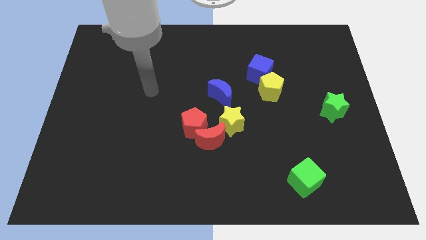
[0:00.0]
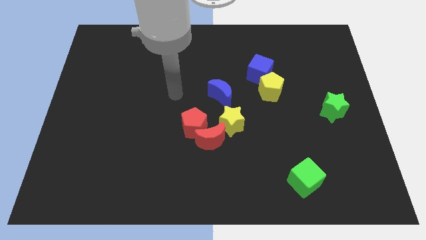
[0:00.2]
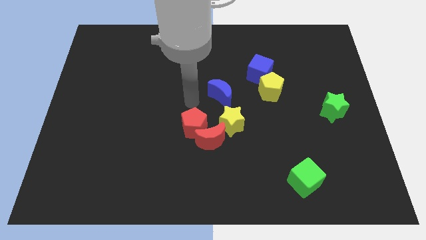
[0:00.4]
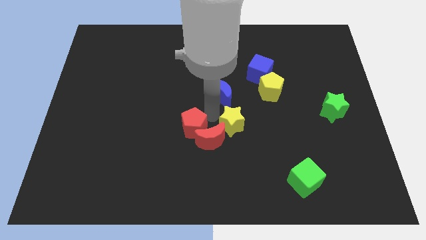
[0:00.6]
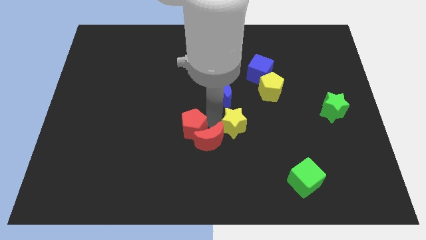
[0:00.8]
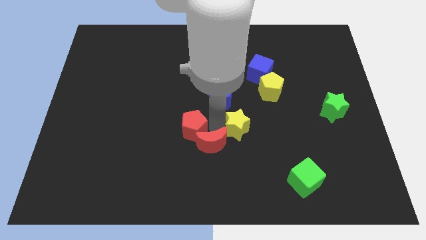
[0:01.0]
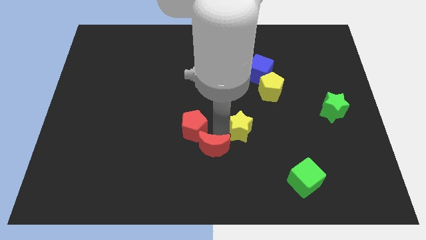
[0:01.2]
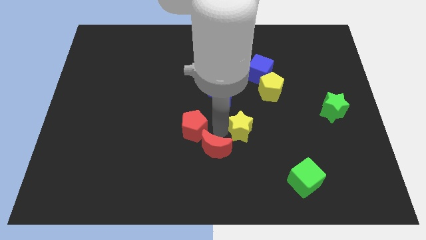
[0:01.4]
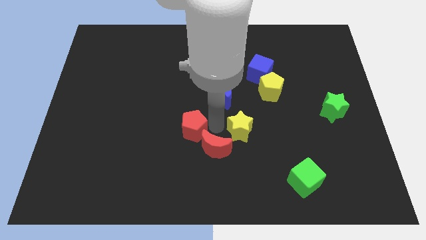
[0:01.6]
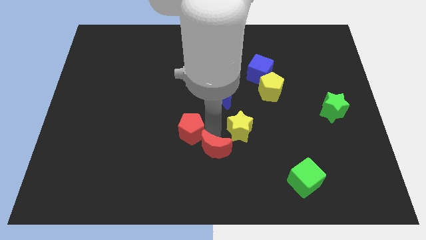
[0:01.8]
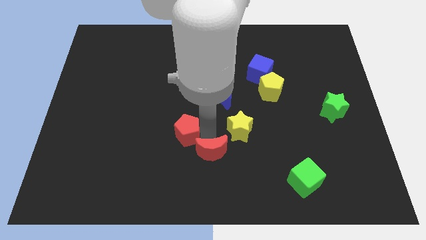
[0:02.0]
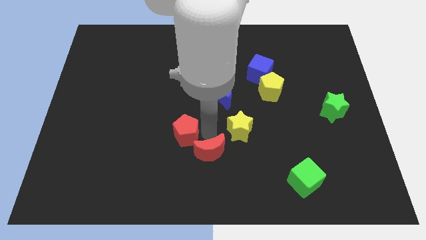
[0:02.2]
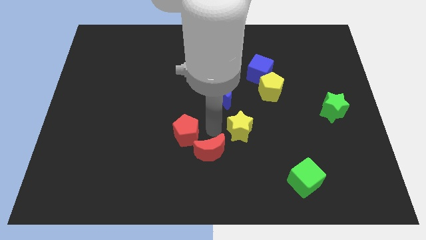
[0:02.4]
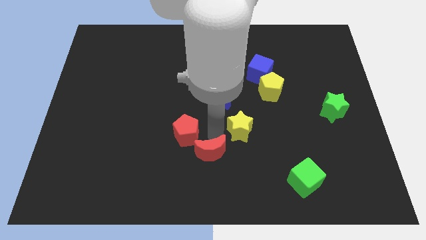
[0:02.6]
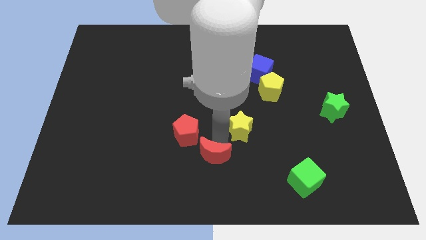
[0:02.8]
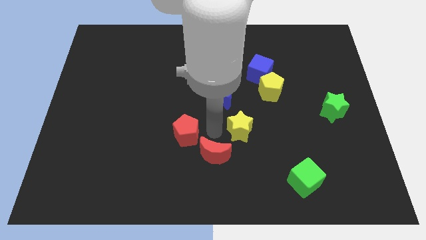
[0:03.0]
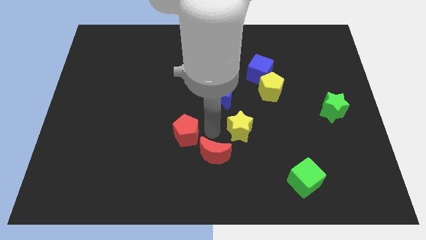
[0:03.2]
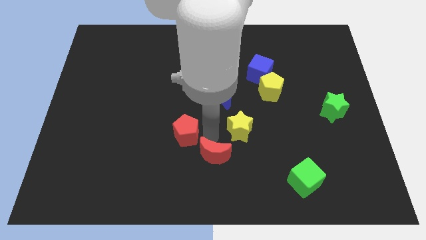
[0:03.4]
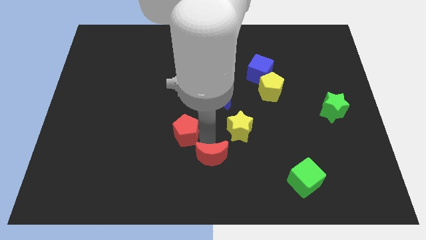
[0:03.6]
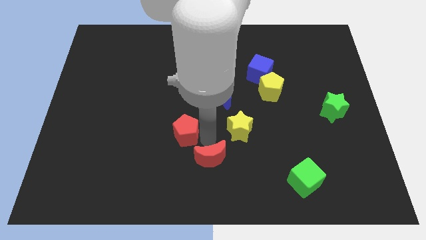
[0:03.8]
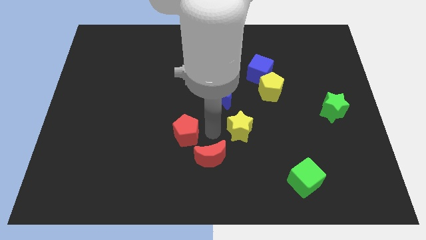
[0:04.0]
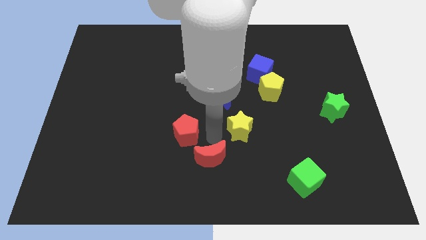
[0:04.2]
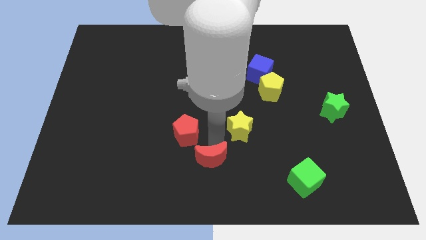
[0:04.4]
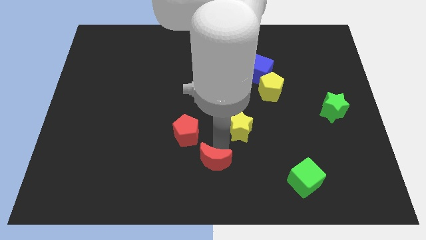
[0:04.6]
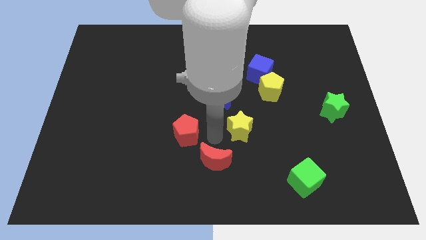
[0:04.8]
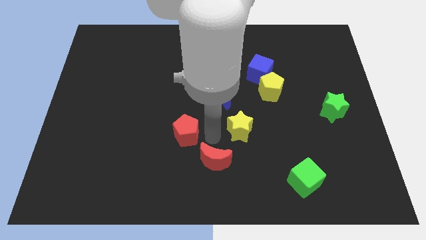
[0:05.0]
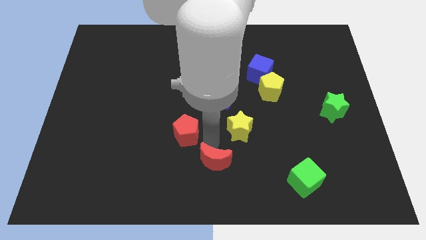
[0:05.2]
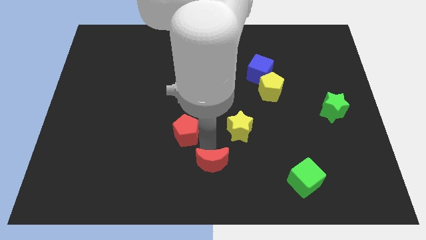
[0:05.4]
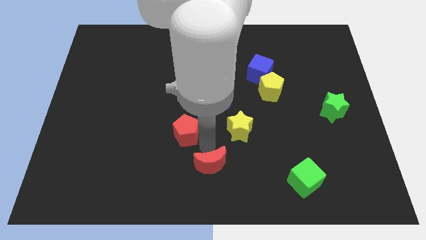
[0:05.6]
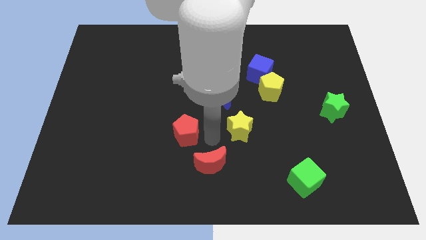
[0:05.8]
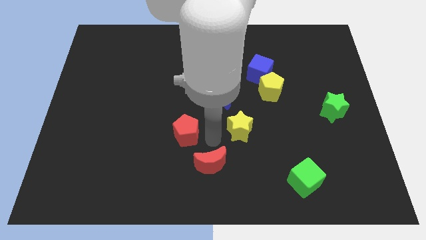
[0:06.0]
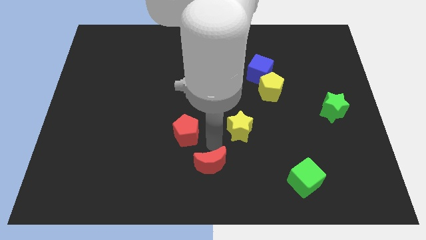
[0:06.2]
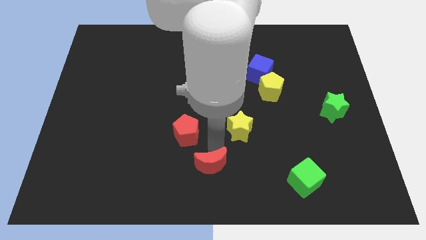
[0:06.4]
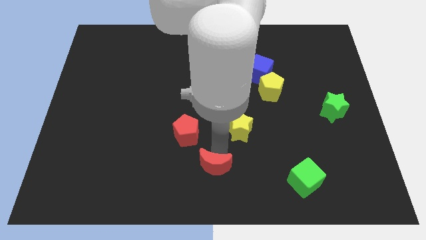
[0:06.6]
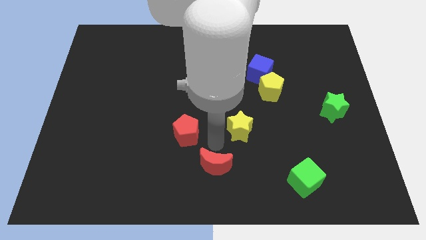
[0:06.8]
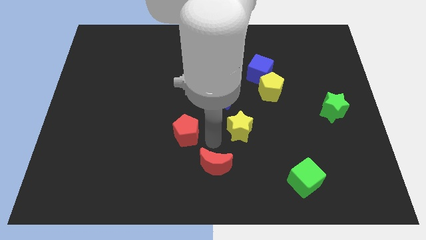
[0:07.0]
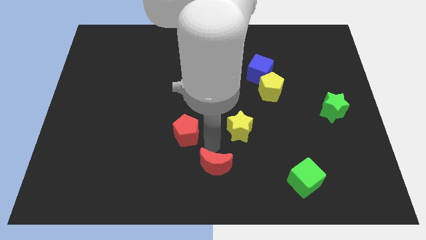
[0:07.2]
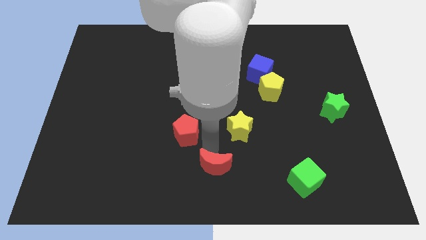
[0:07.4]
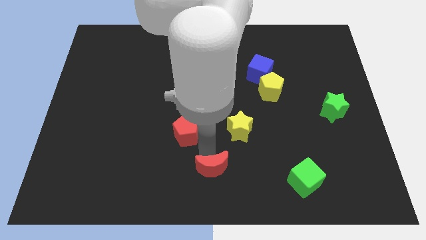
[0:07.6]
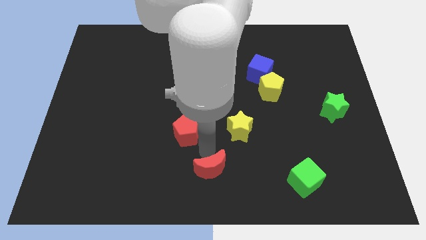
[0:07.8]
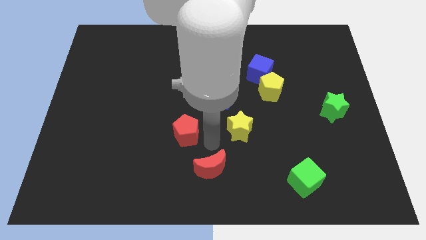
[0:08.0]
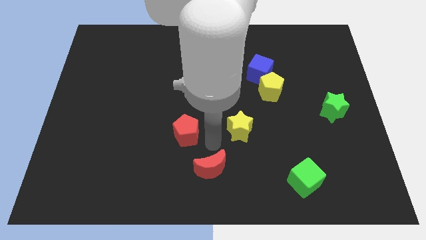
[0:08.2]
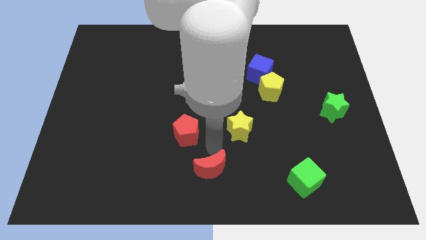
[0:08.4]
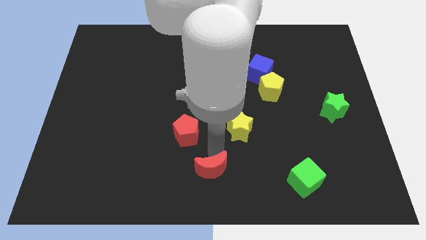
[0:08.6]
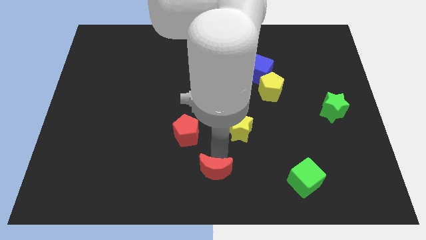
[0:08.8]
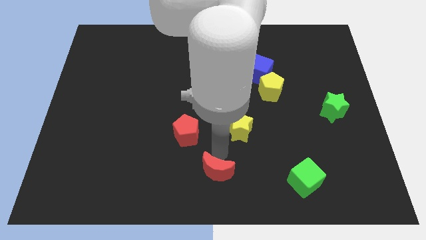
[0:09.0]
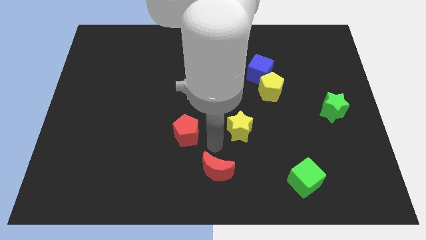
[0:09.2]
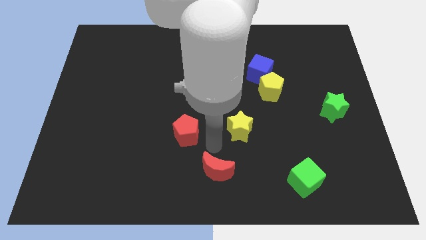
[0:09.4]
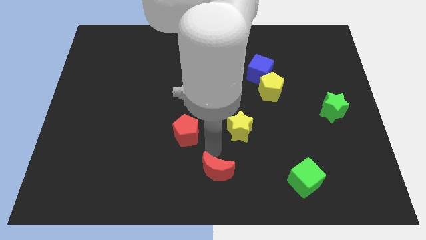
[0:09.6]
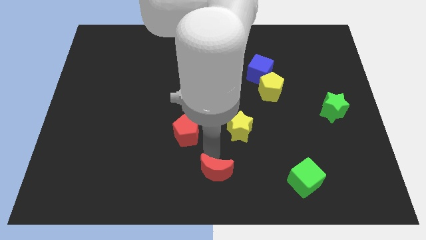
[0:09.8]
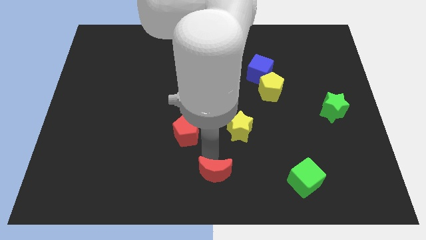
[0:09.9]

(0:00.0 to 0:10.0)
separate the red moon from the red pentagon and yellow star

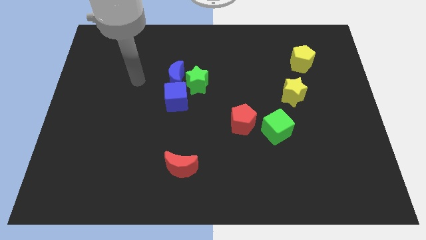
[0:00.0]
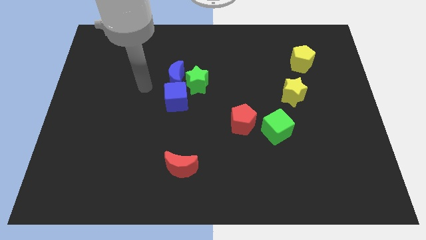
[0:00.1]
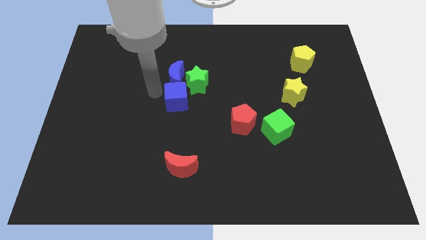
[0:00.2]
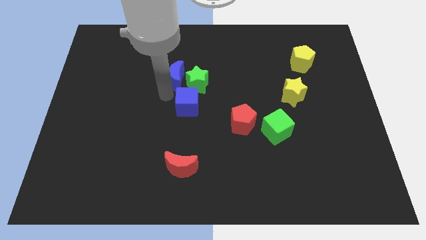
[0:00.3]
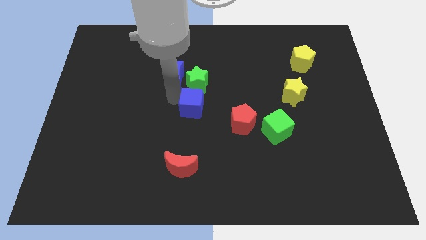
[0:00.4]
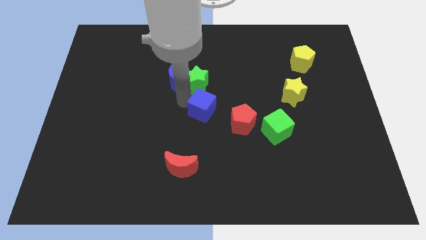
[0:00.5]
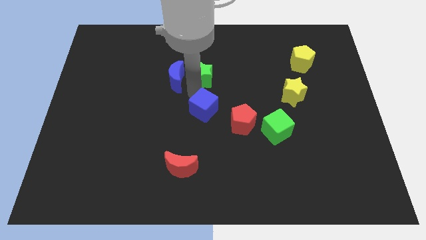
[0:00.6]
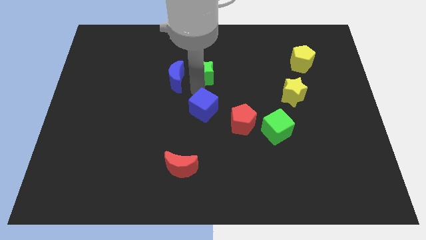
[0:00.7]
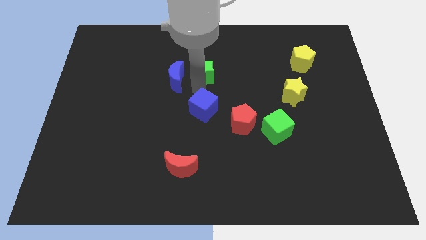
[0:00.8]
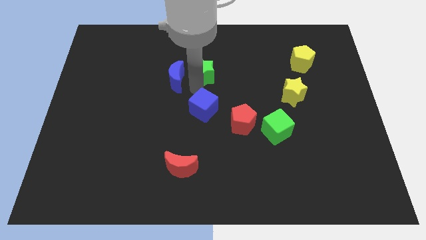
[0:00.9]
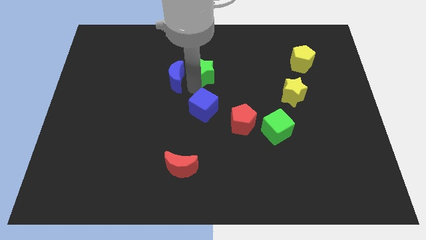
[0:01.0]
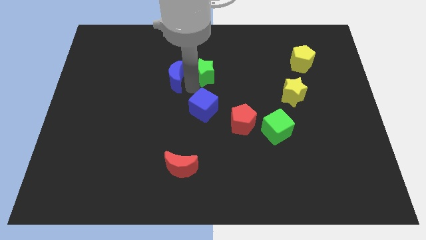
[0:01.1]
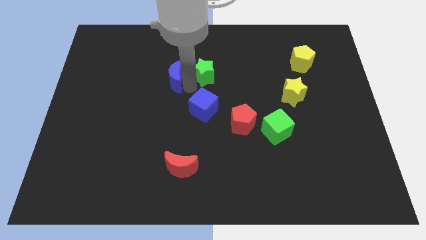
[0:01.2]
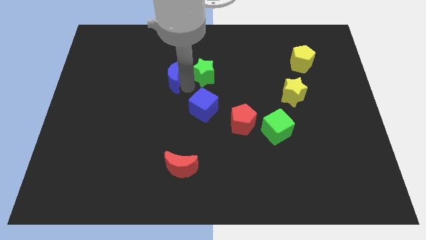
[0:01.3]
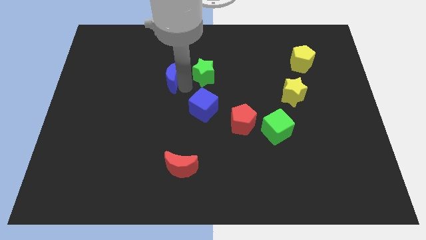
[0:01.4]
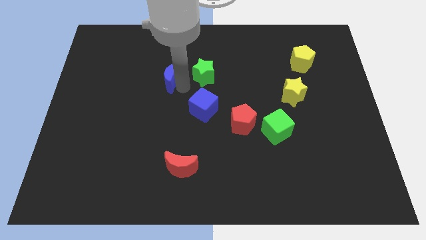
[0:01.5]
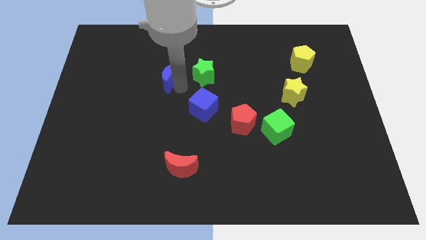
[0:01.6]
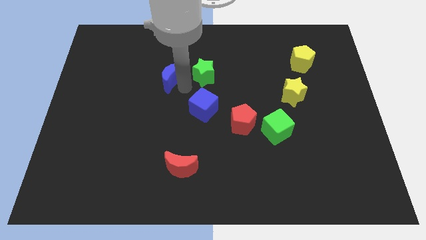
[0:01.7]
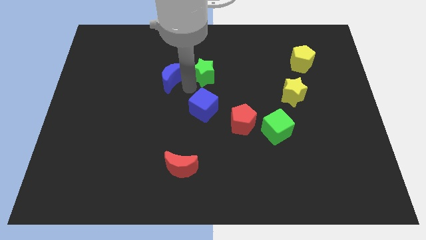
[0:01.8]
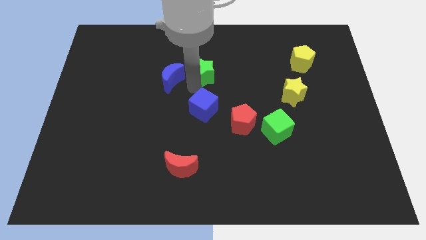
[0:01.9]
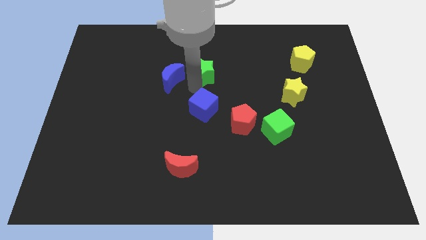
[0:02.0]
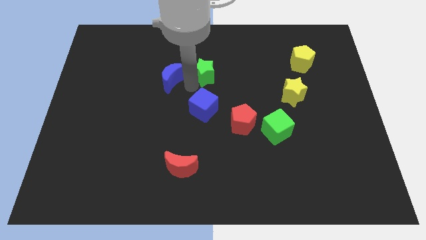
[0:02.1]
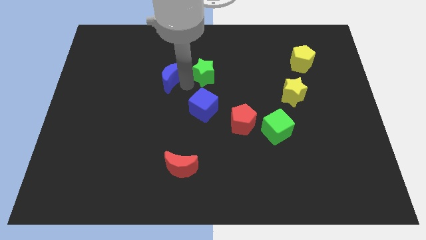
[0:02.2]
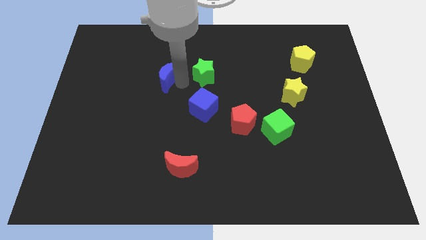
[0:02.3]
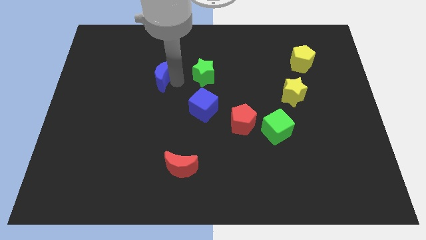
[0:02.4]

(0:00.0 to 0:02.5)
move the blue moon away from the green star and blue cube

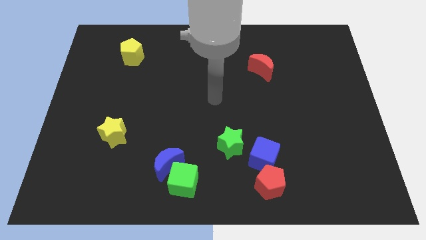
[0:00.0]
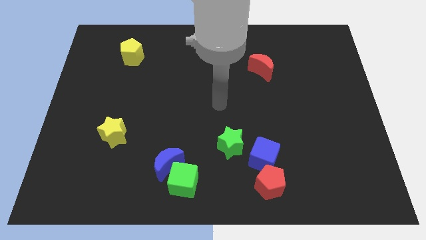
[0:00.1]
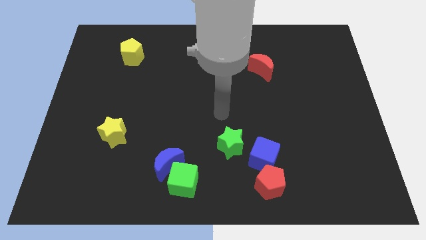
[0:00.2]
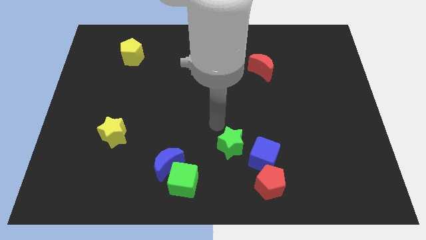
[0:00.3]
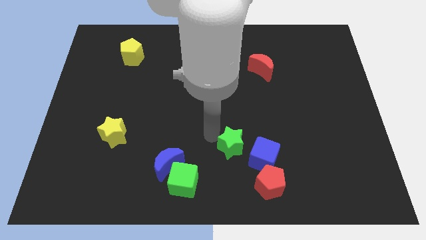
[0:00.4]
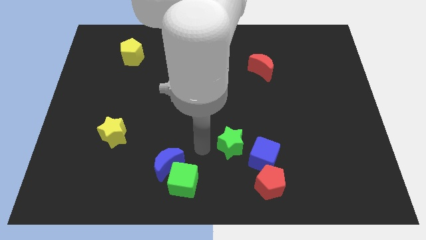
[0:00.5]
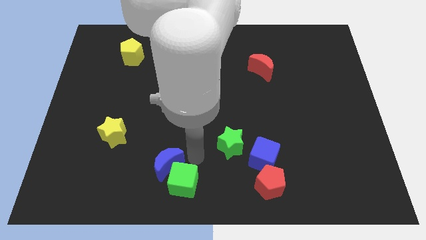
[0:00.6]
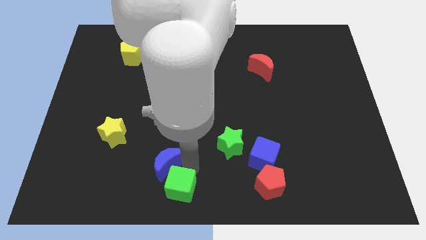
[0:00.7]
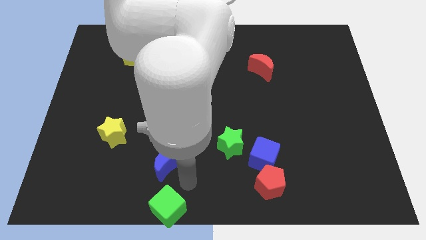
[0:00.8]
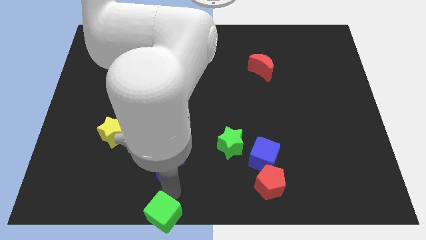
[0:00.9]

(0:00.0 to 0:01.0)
move the blue moon away from the green cube

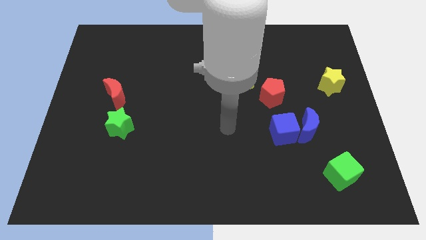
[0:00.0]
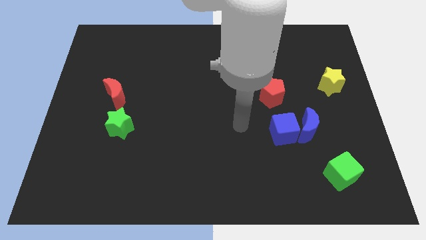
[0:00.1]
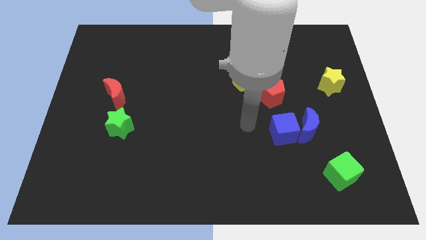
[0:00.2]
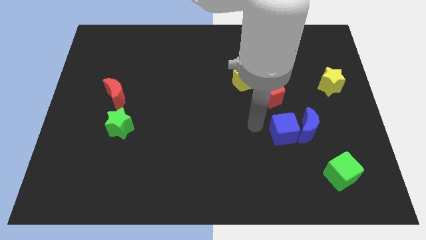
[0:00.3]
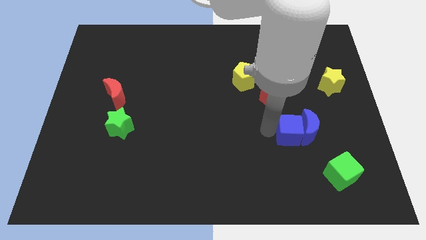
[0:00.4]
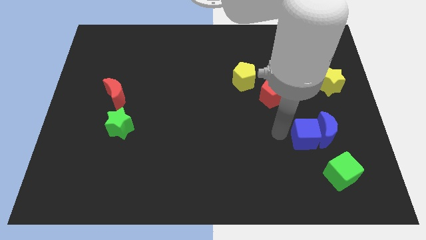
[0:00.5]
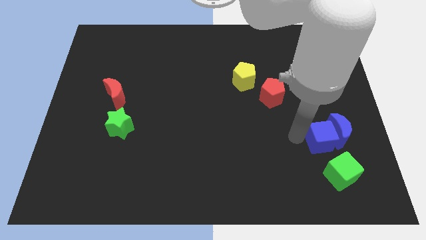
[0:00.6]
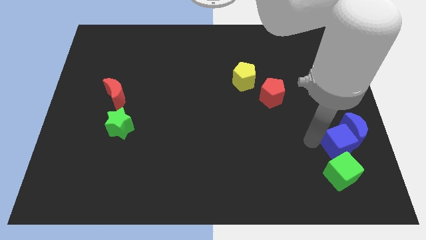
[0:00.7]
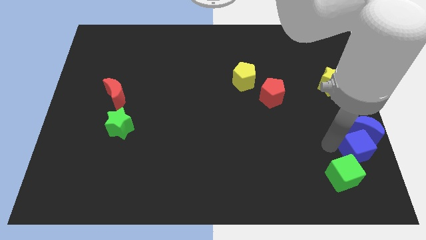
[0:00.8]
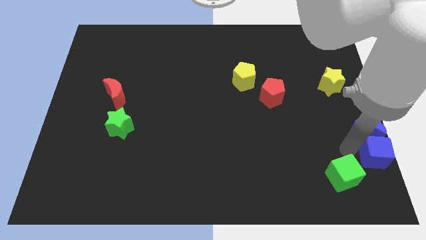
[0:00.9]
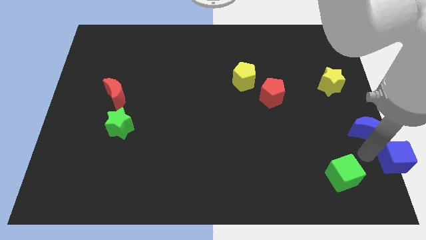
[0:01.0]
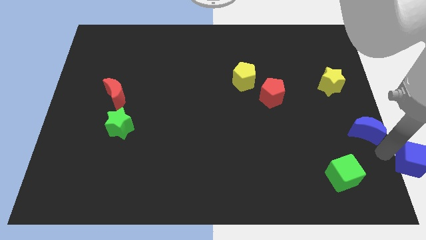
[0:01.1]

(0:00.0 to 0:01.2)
move the blue moon away from the blue cube
